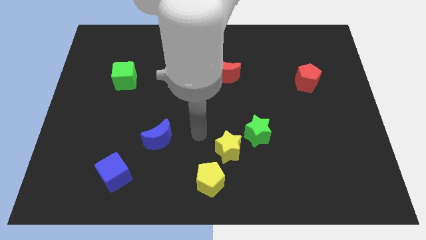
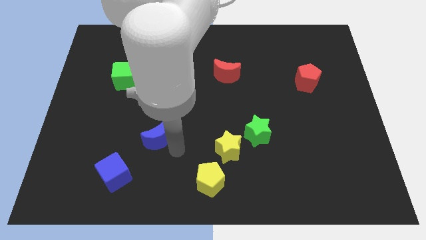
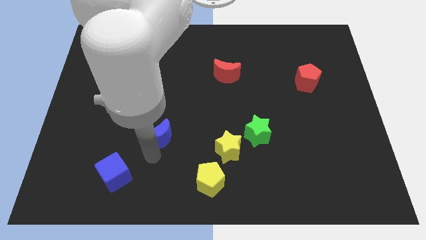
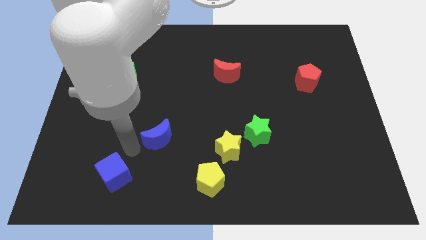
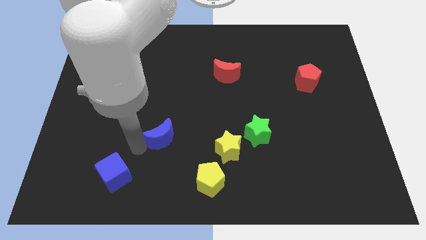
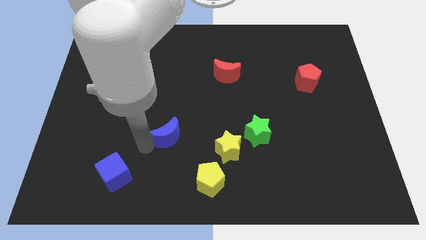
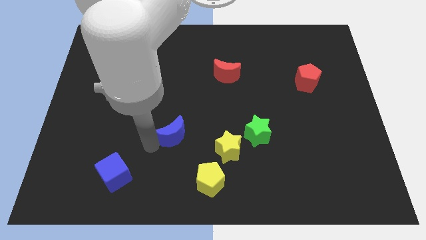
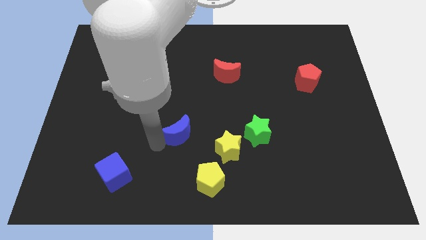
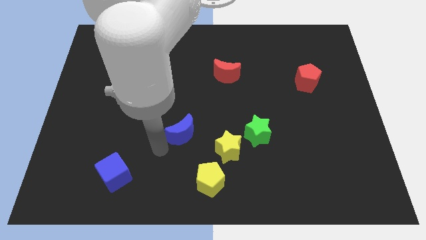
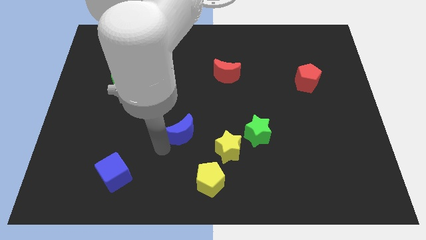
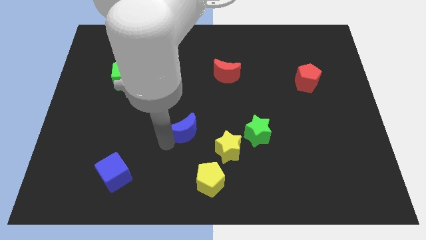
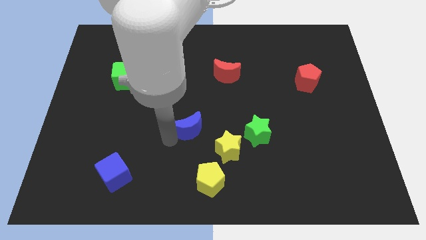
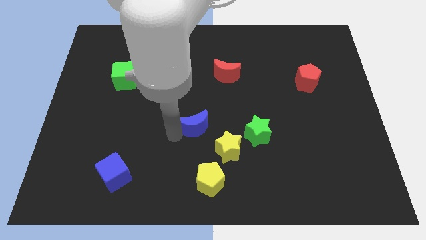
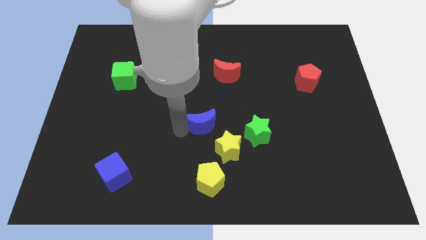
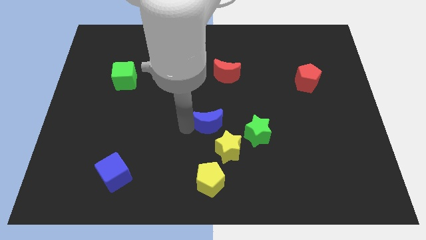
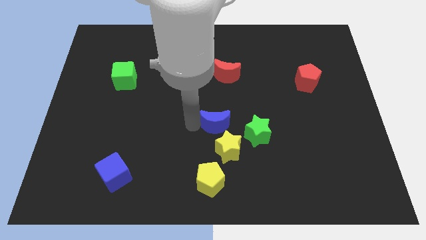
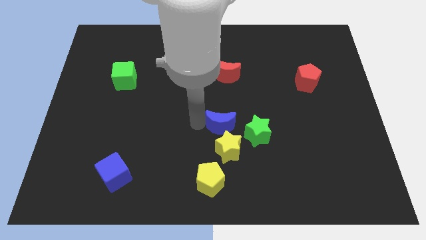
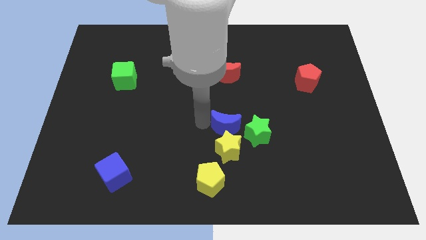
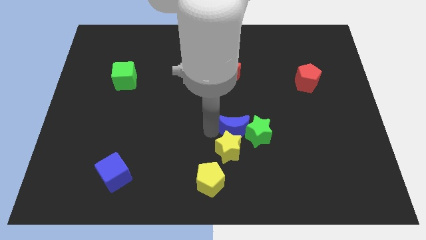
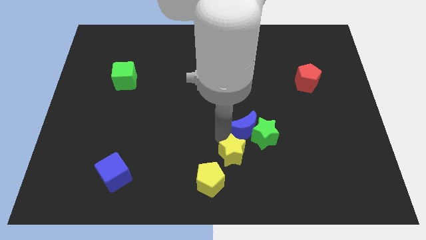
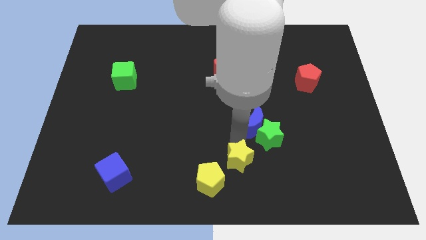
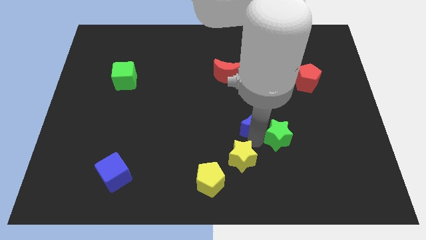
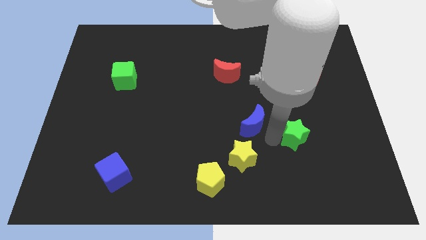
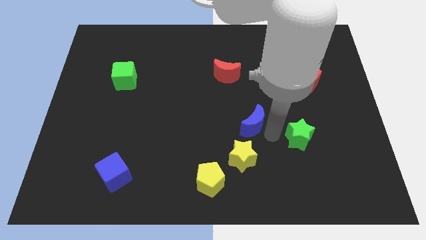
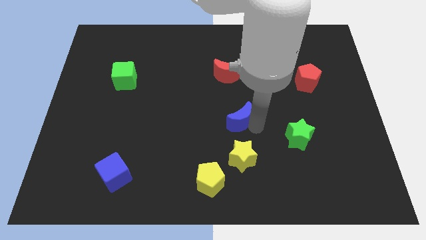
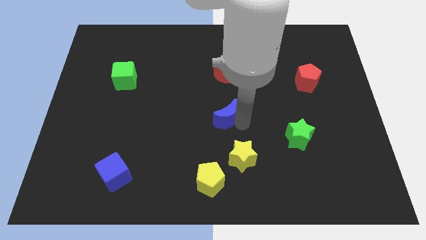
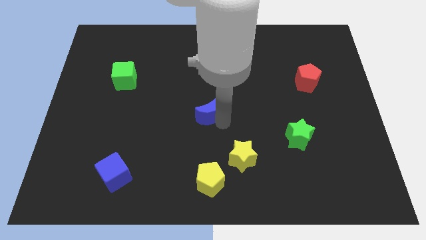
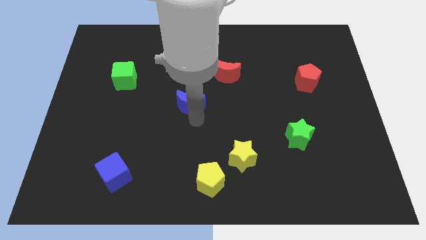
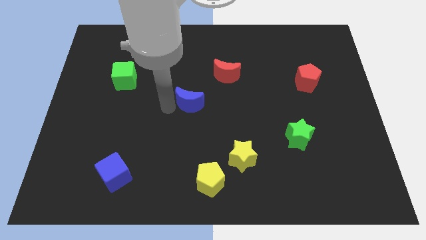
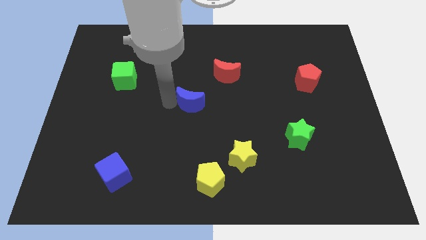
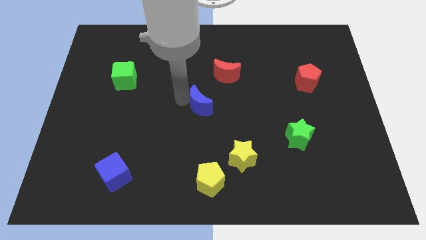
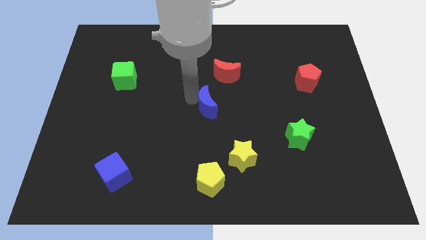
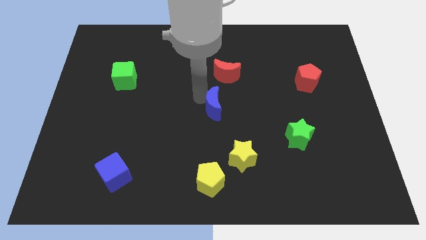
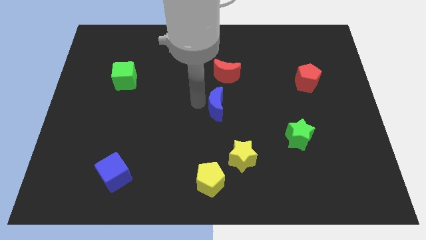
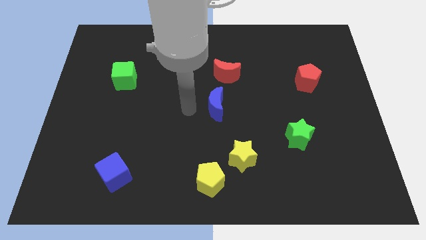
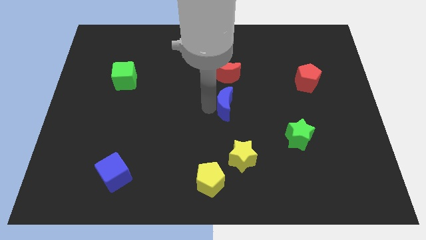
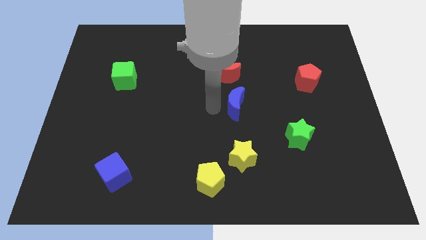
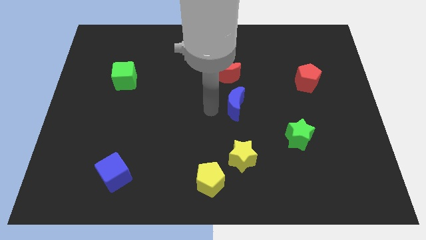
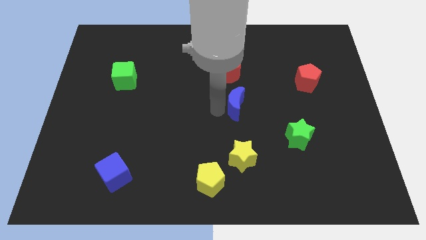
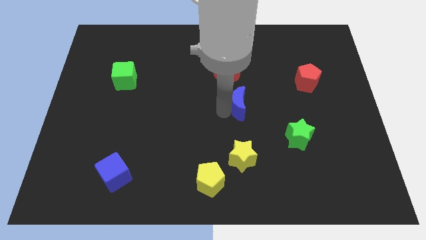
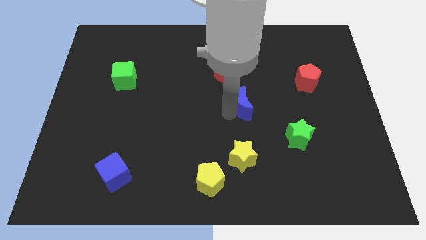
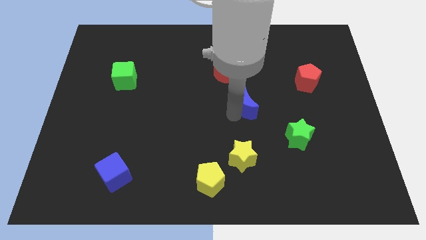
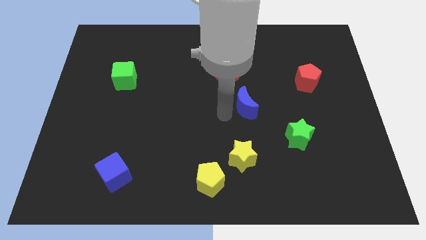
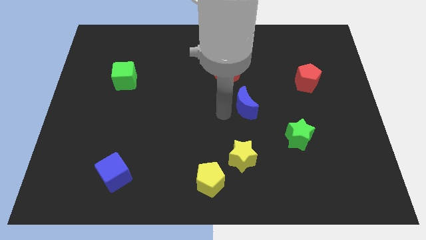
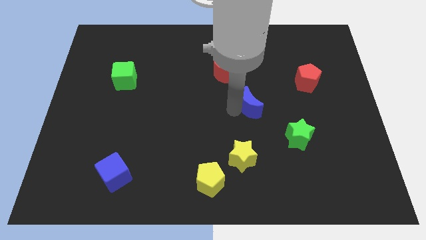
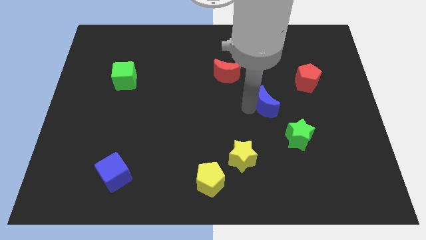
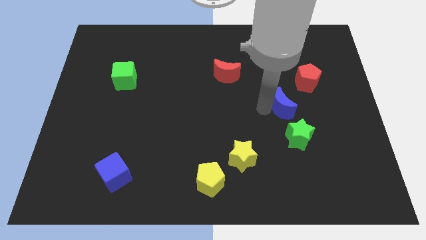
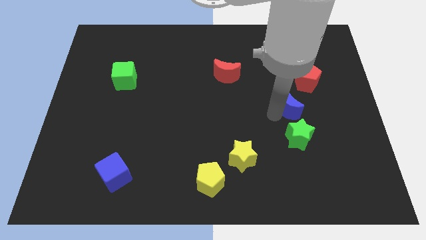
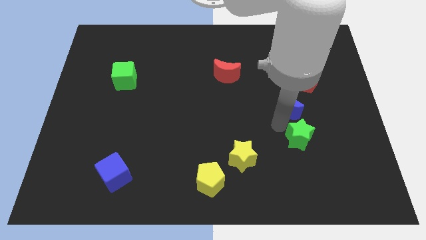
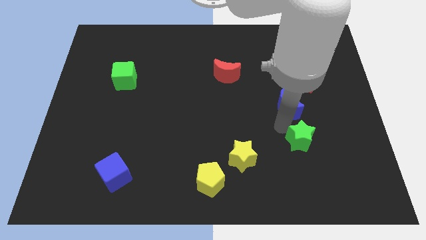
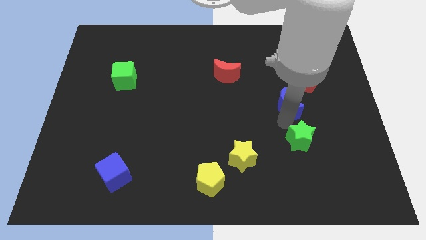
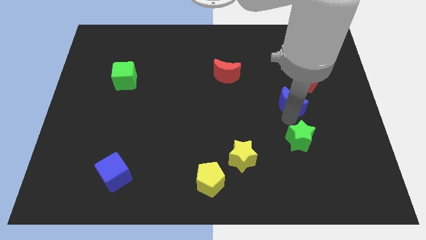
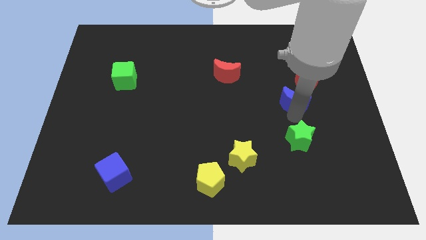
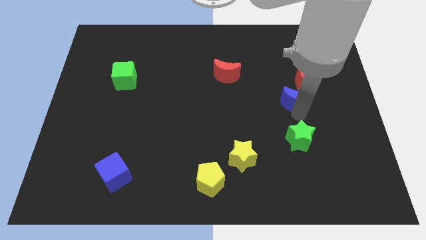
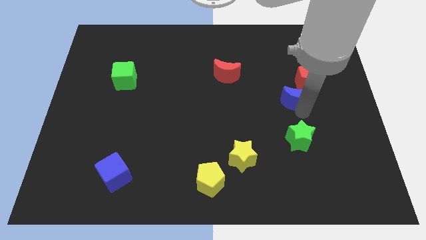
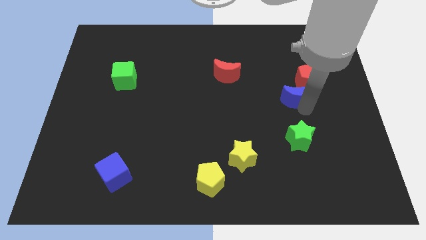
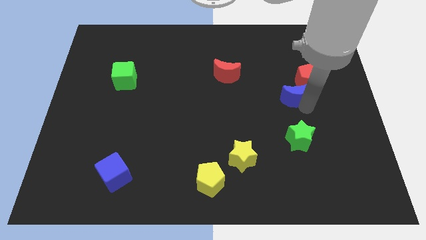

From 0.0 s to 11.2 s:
push the blue moon next to the red pentagon

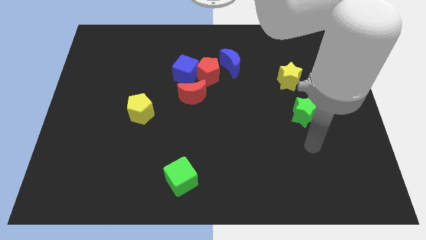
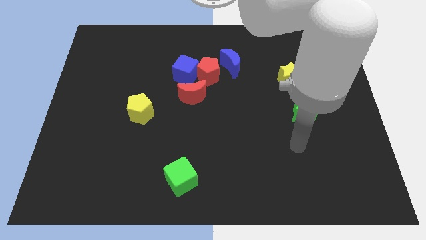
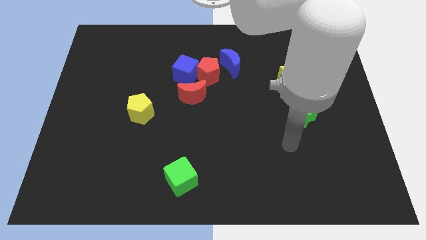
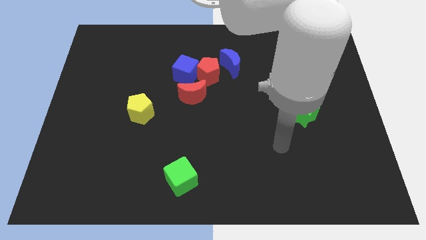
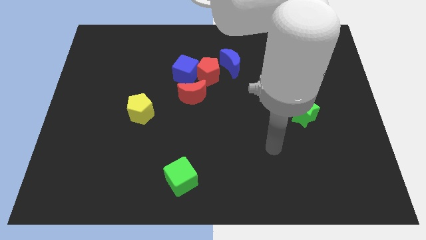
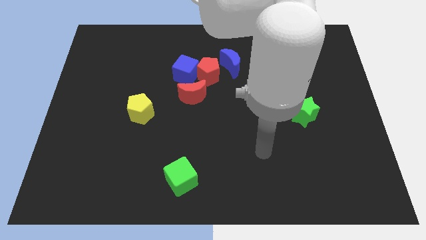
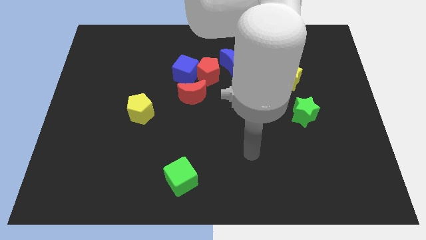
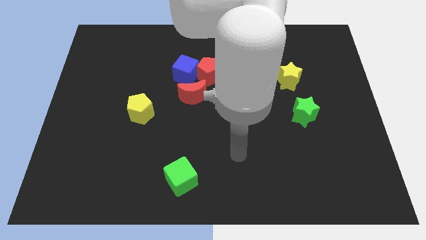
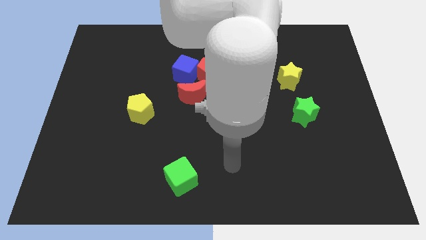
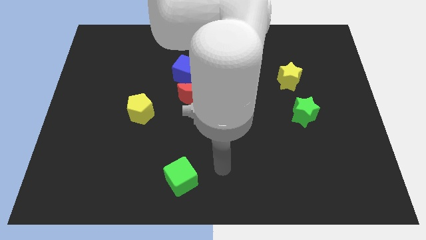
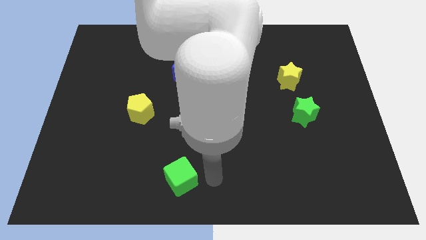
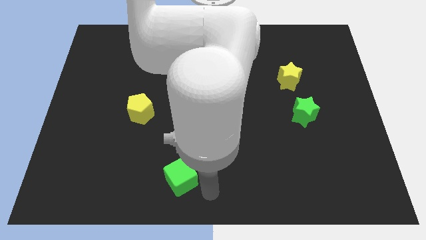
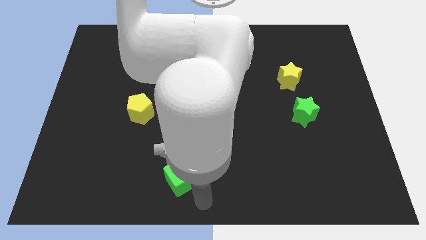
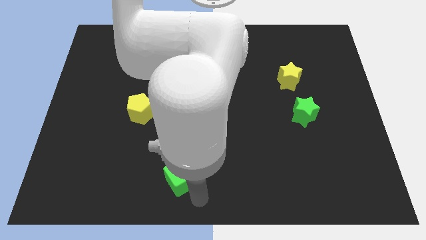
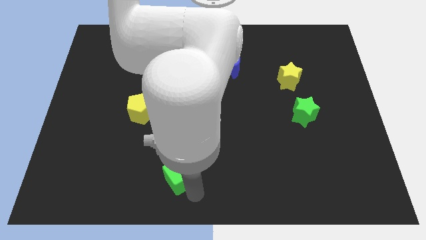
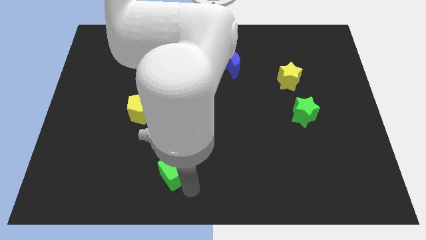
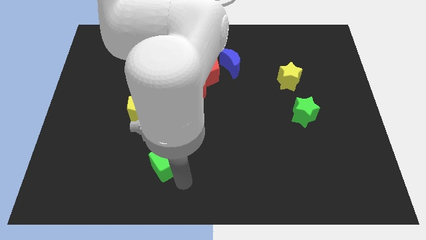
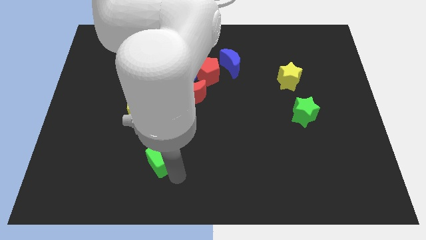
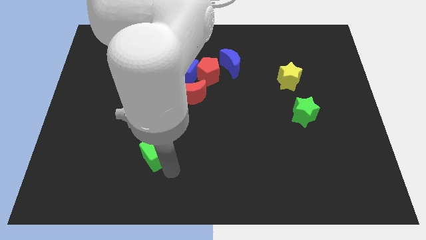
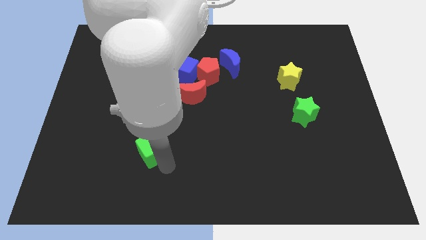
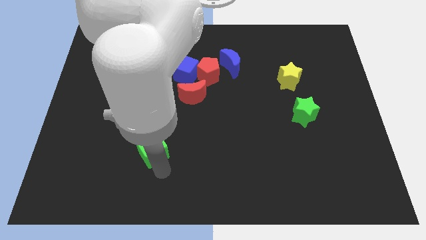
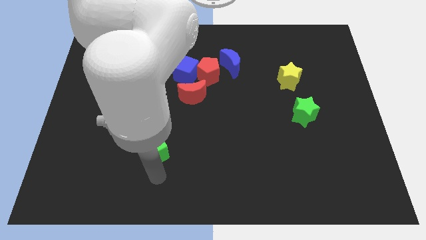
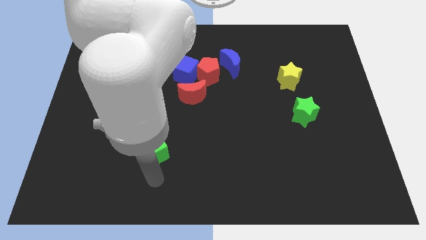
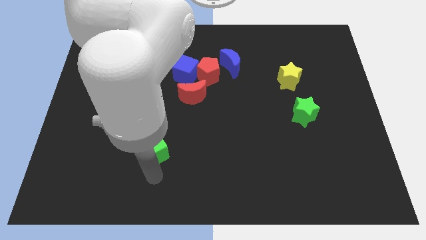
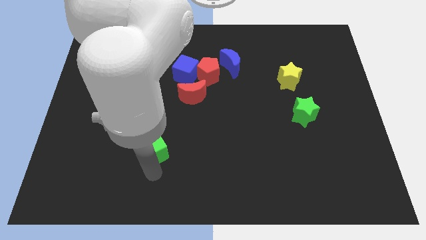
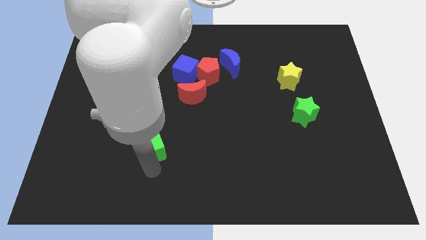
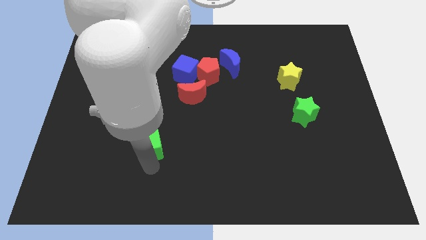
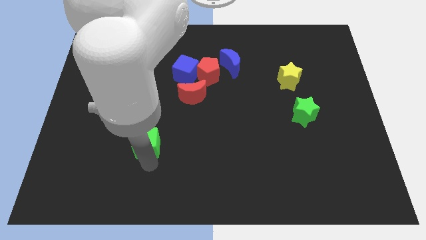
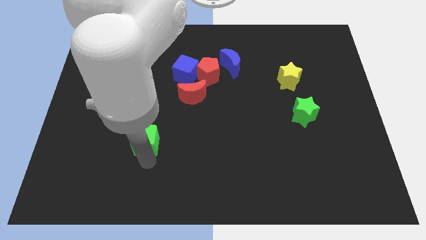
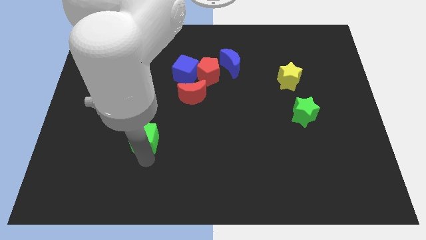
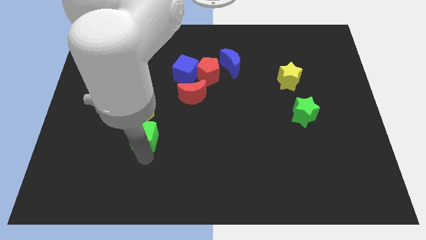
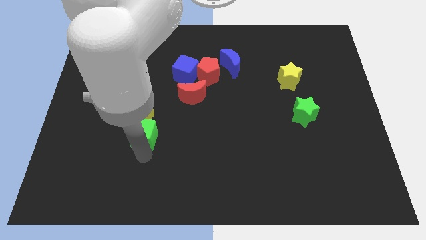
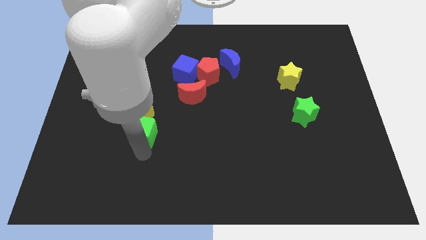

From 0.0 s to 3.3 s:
slide the green cube towards the yellow pentagon
